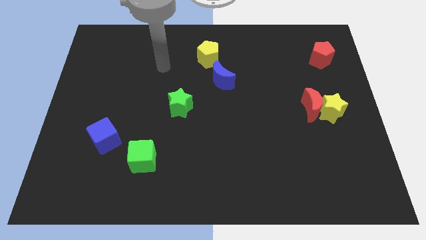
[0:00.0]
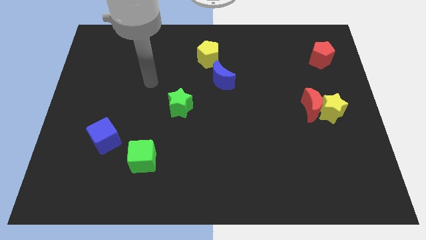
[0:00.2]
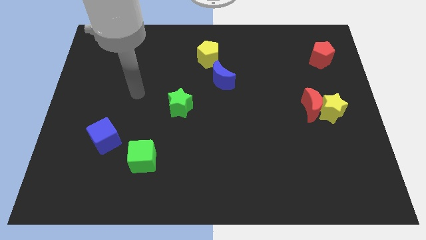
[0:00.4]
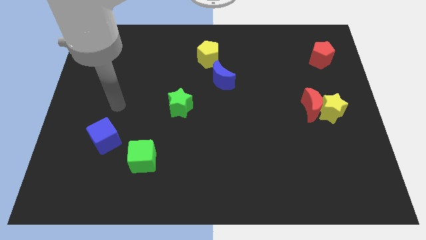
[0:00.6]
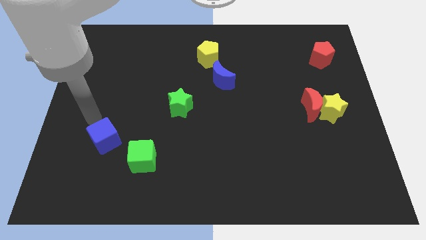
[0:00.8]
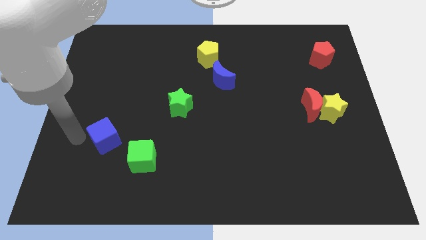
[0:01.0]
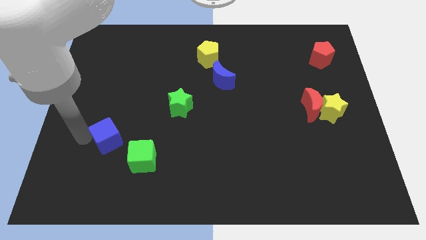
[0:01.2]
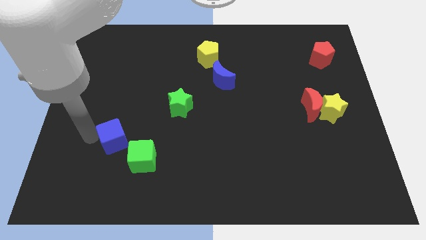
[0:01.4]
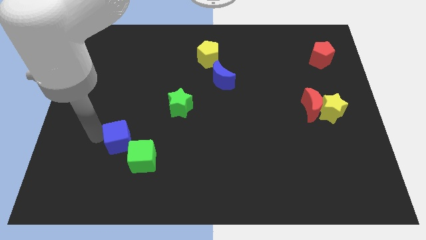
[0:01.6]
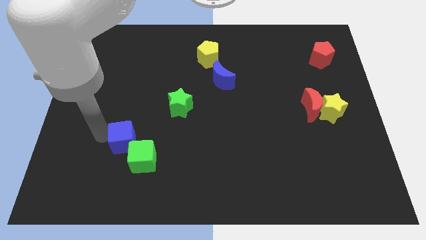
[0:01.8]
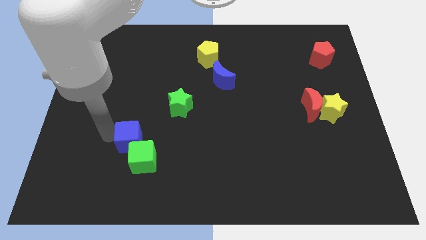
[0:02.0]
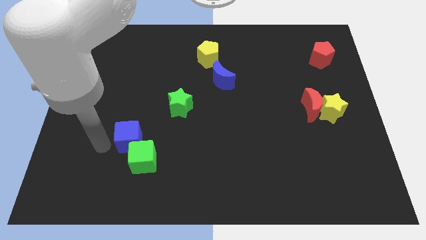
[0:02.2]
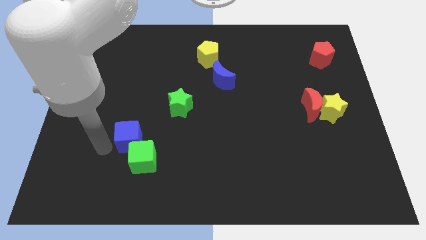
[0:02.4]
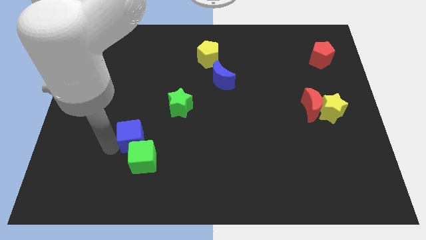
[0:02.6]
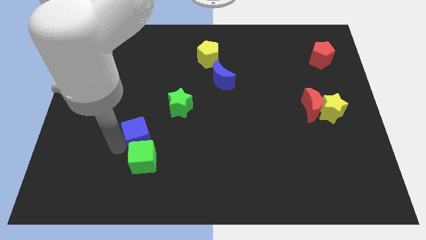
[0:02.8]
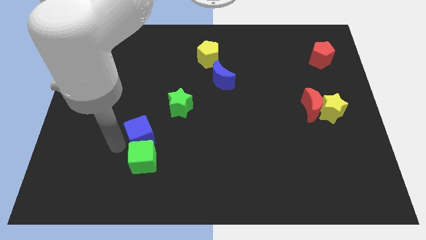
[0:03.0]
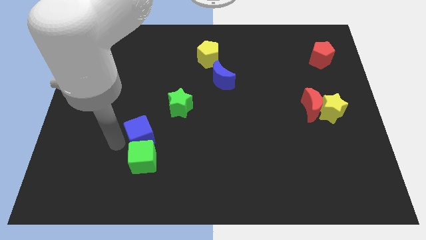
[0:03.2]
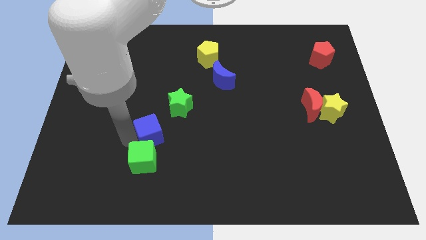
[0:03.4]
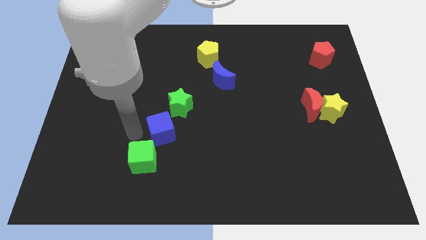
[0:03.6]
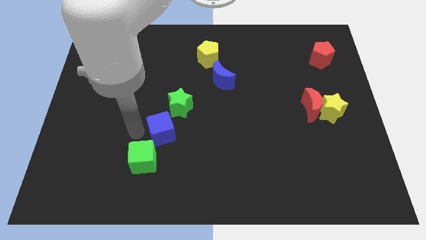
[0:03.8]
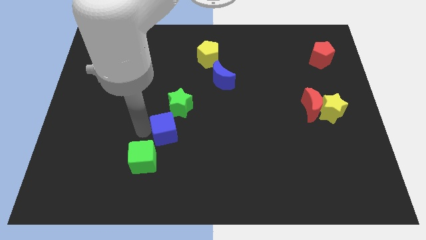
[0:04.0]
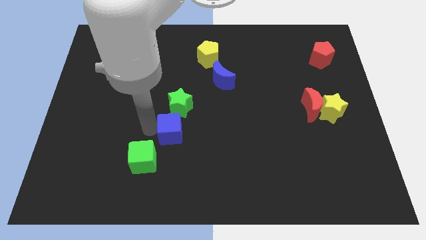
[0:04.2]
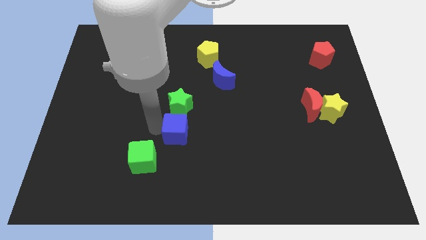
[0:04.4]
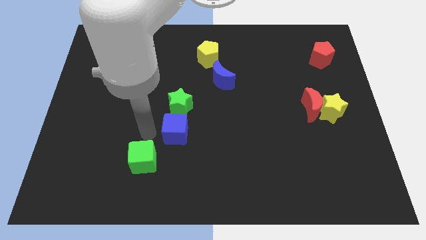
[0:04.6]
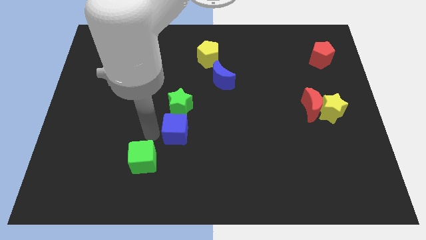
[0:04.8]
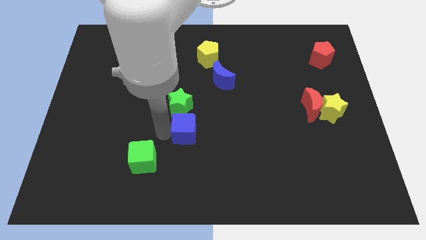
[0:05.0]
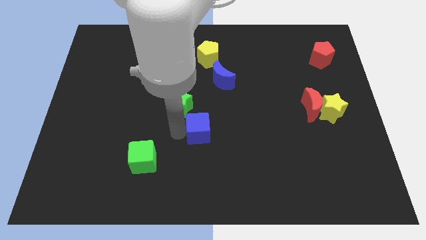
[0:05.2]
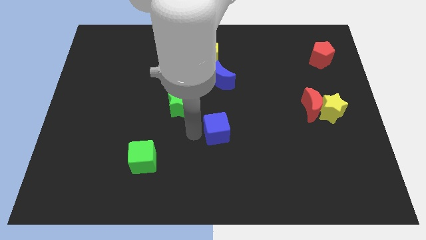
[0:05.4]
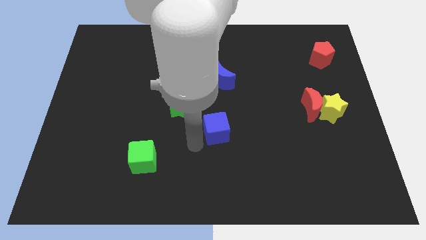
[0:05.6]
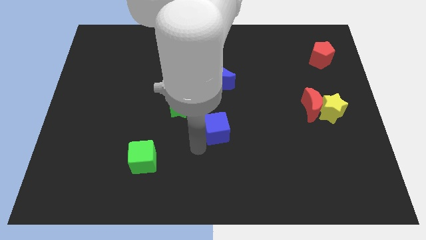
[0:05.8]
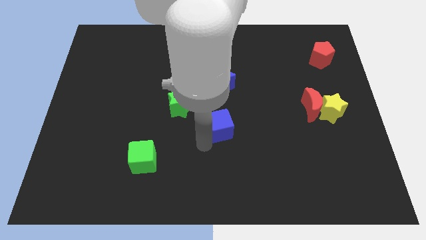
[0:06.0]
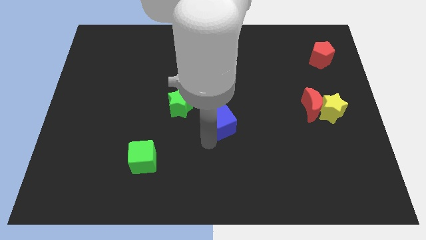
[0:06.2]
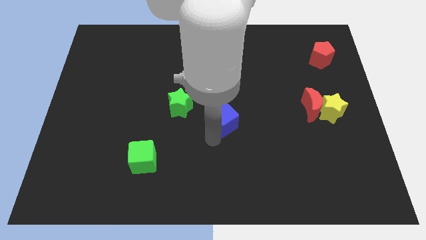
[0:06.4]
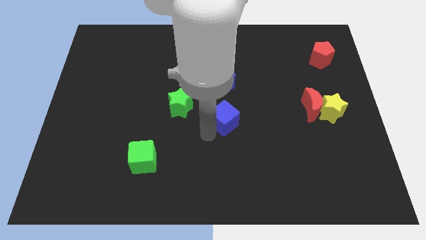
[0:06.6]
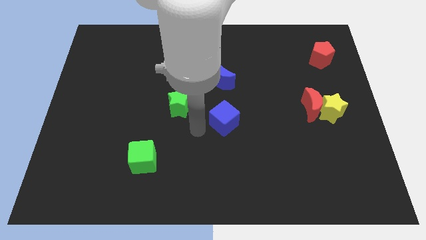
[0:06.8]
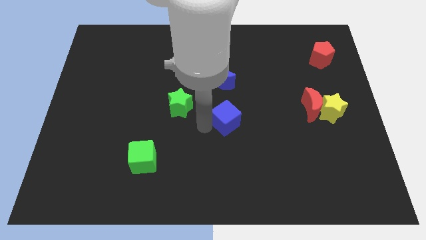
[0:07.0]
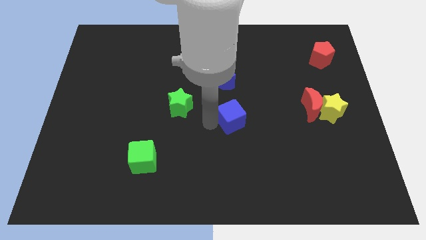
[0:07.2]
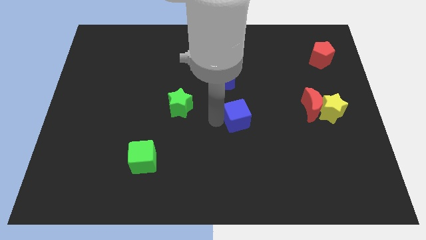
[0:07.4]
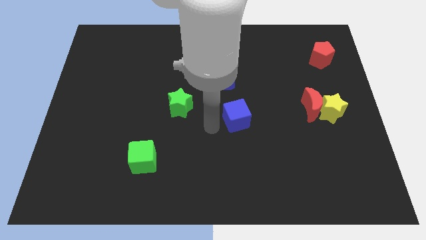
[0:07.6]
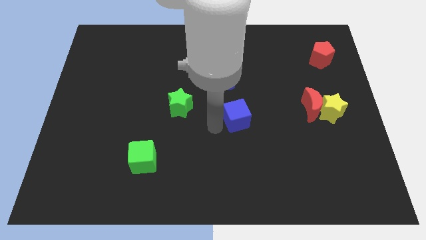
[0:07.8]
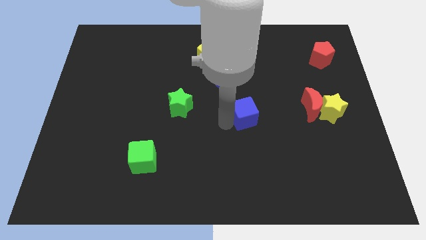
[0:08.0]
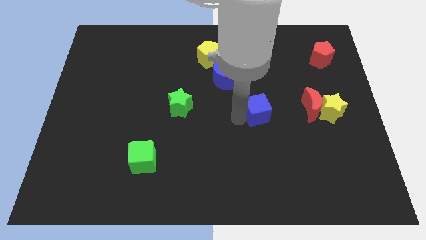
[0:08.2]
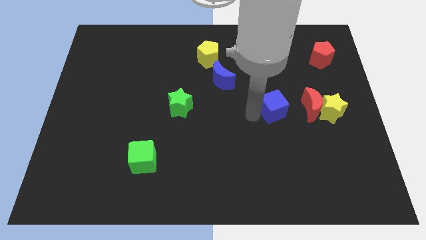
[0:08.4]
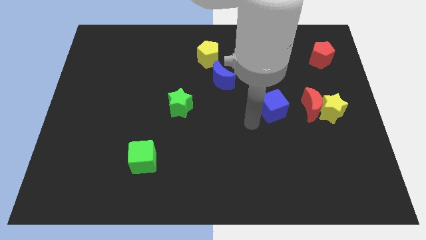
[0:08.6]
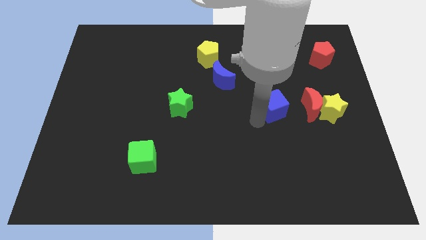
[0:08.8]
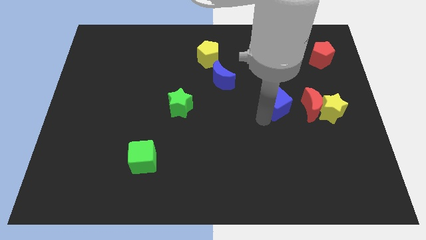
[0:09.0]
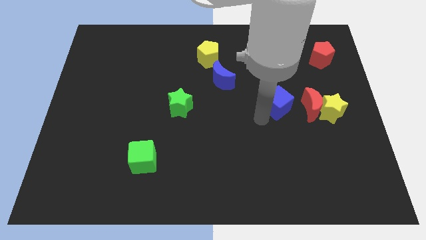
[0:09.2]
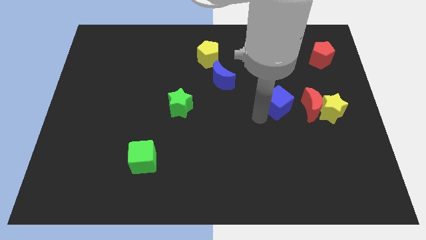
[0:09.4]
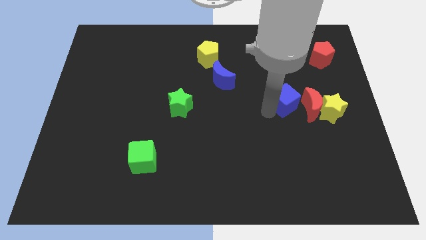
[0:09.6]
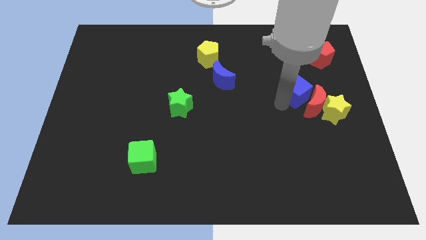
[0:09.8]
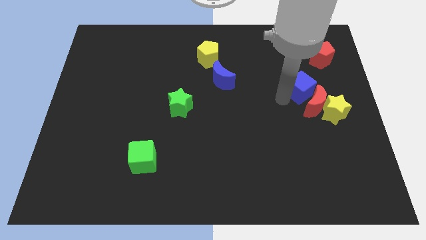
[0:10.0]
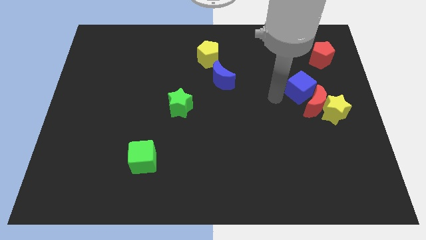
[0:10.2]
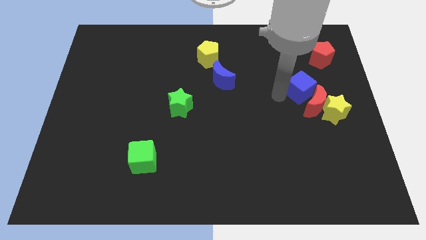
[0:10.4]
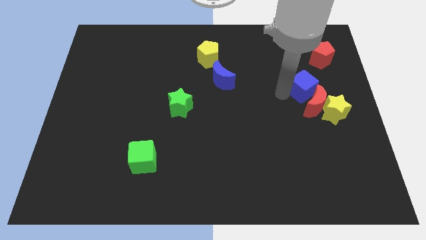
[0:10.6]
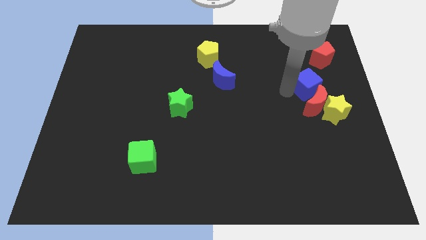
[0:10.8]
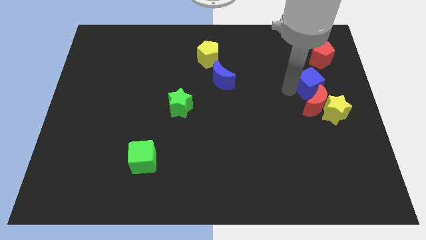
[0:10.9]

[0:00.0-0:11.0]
slide the blue cube to the top side of the yellow star

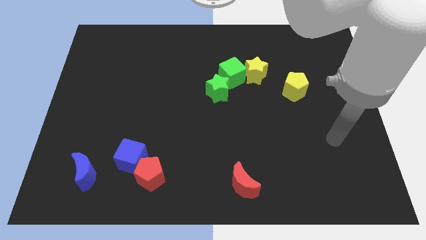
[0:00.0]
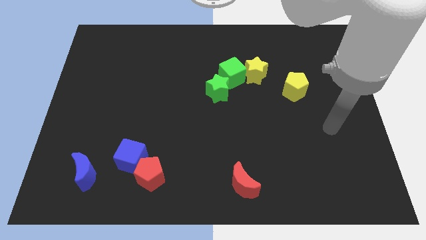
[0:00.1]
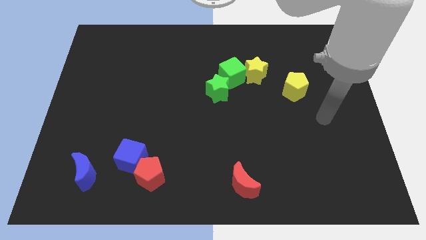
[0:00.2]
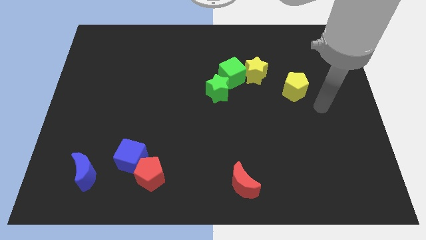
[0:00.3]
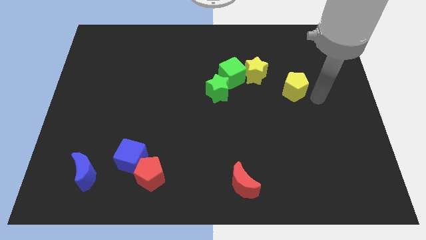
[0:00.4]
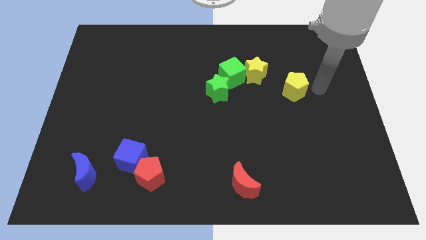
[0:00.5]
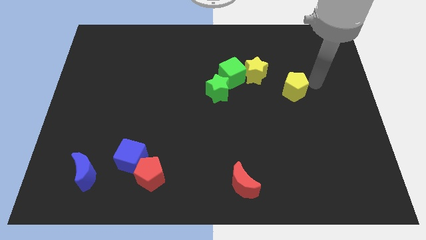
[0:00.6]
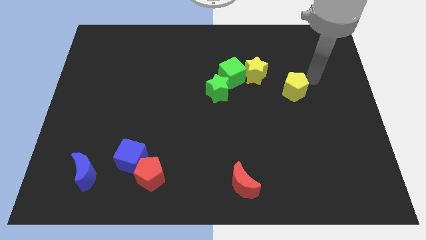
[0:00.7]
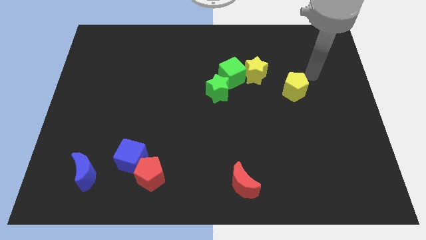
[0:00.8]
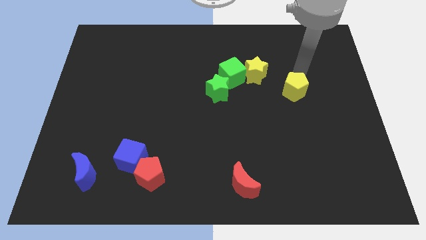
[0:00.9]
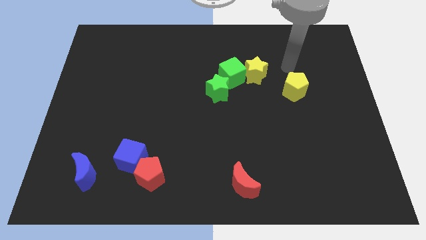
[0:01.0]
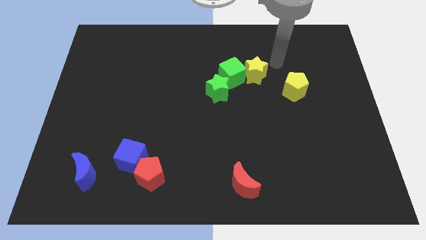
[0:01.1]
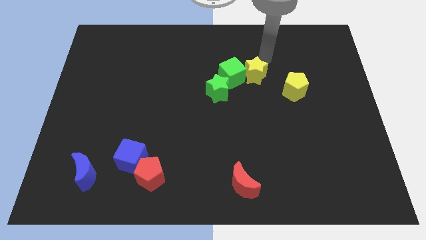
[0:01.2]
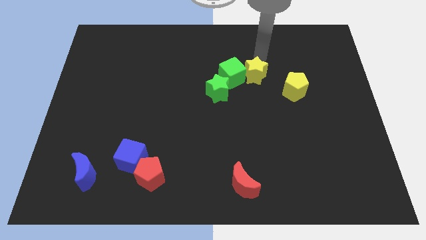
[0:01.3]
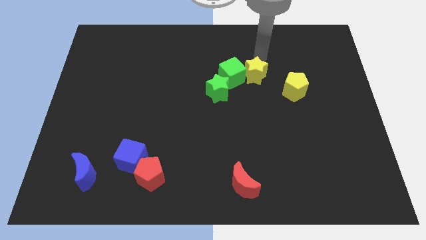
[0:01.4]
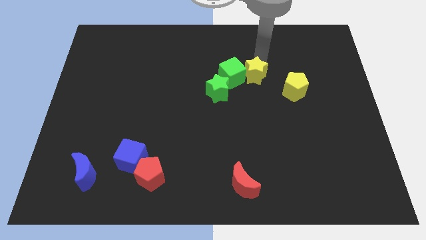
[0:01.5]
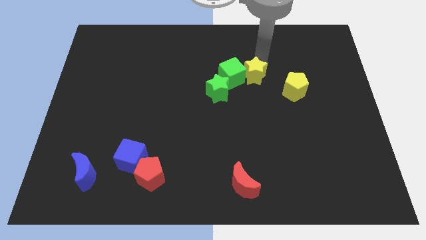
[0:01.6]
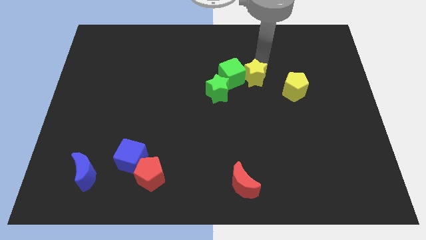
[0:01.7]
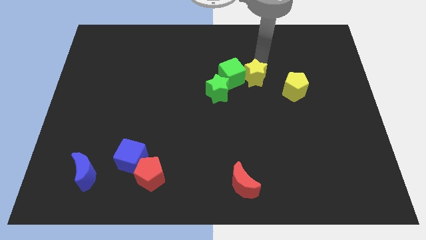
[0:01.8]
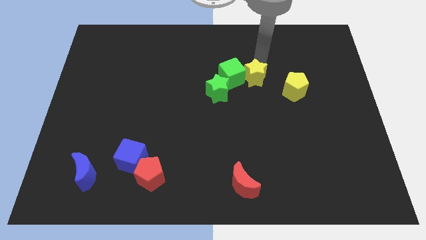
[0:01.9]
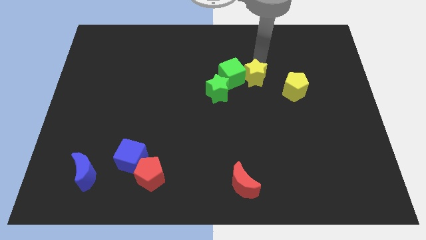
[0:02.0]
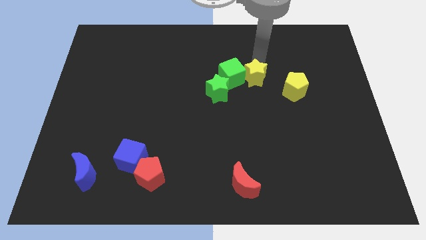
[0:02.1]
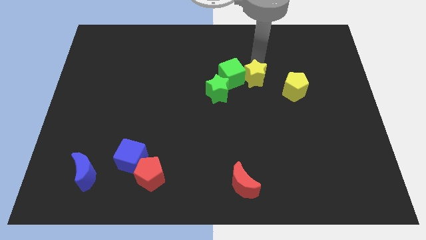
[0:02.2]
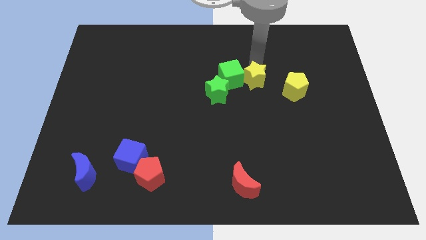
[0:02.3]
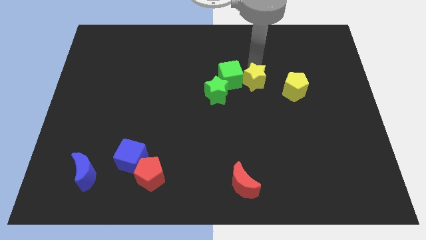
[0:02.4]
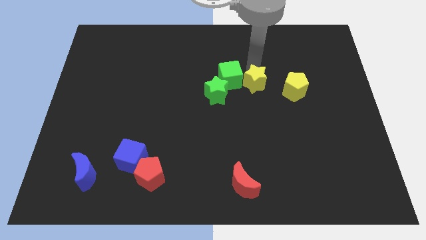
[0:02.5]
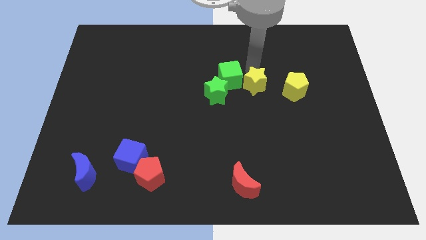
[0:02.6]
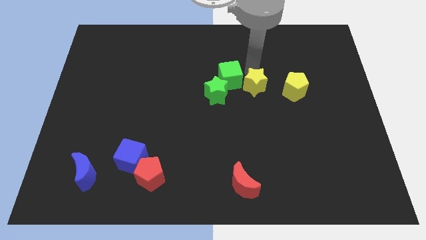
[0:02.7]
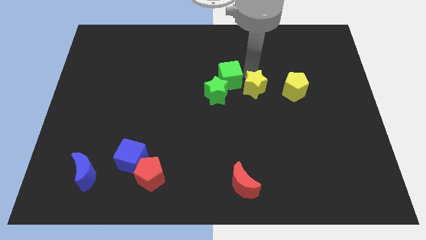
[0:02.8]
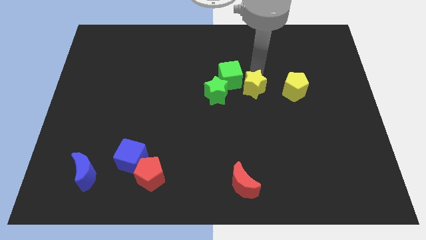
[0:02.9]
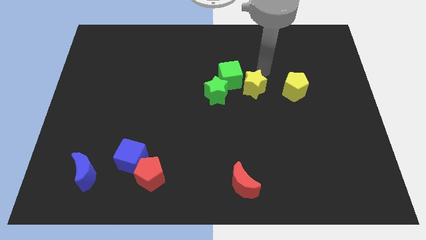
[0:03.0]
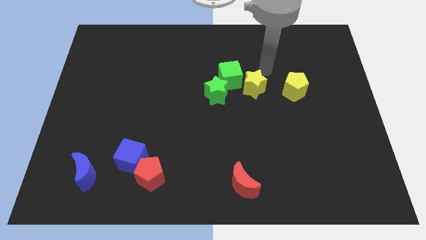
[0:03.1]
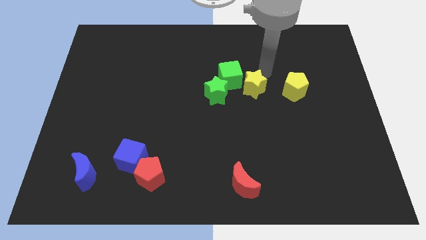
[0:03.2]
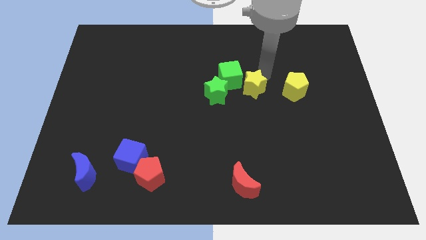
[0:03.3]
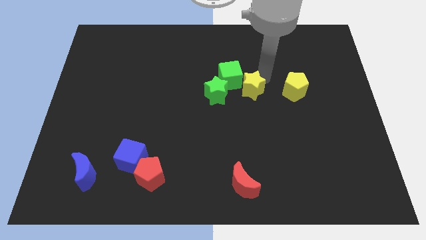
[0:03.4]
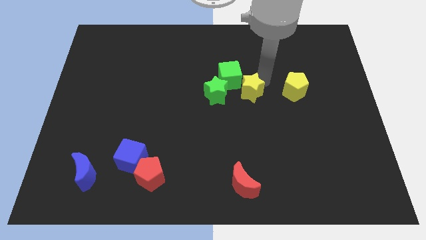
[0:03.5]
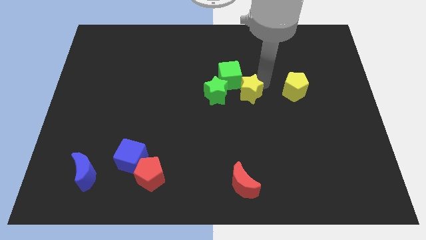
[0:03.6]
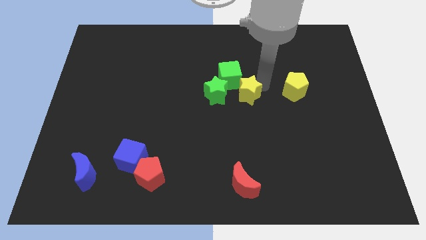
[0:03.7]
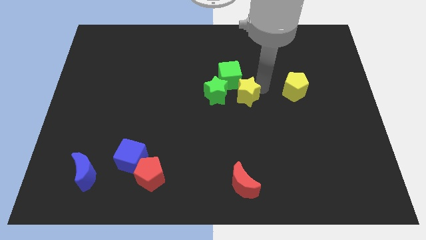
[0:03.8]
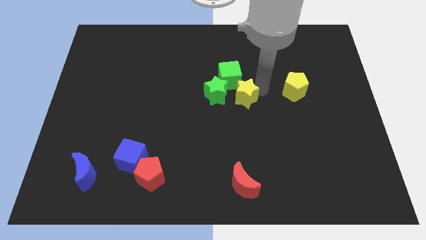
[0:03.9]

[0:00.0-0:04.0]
slide the yellow star diagonally down and to the right of the green star
